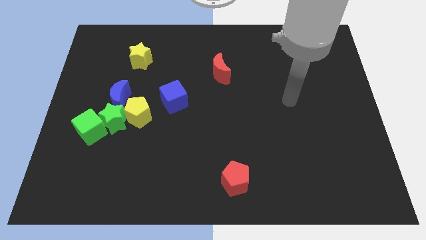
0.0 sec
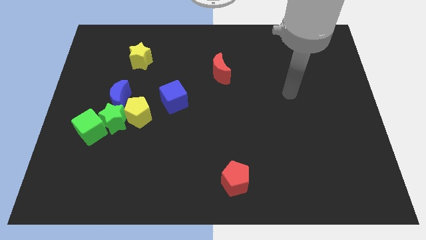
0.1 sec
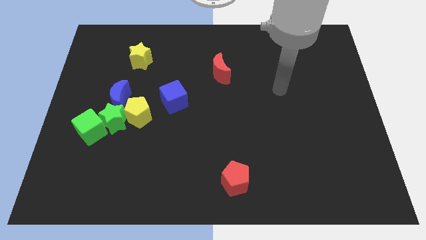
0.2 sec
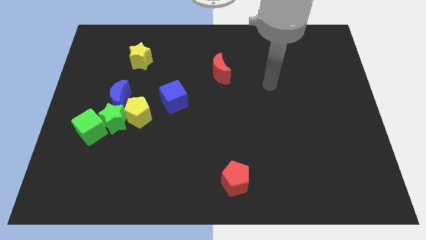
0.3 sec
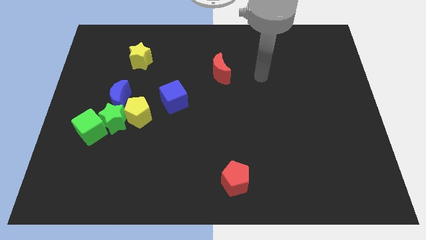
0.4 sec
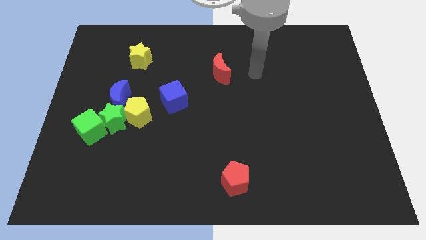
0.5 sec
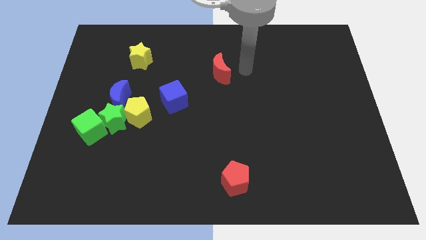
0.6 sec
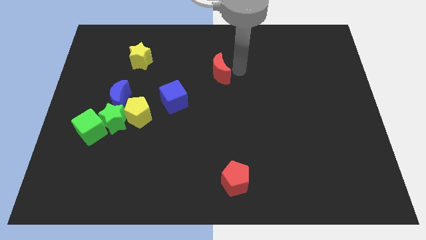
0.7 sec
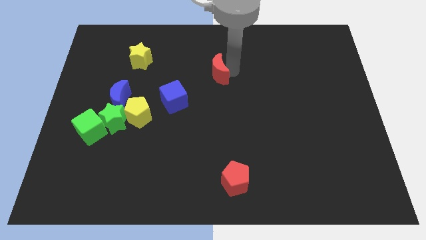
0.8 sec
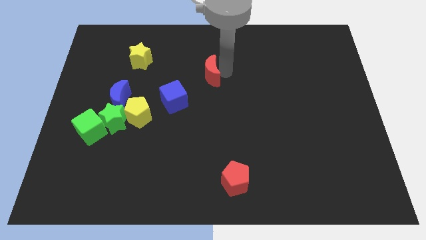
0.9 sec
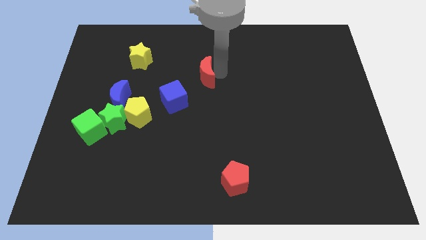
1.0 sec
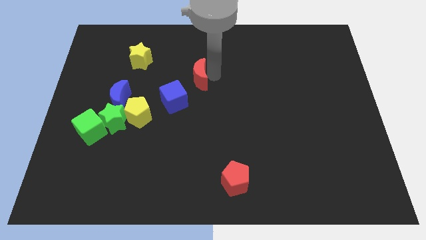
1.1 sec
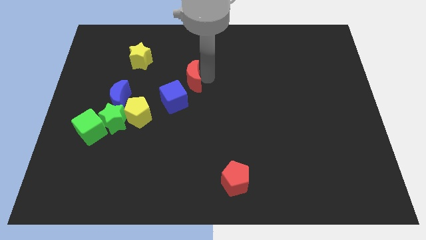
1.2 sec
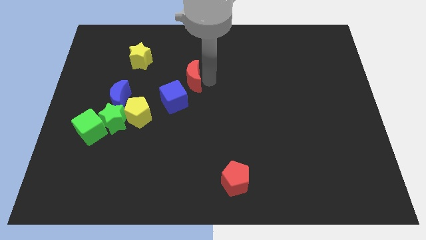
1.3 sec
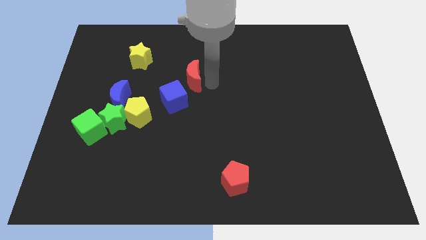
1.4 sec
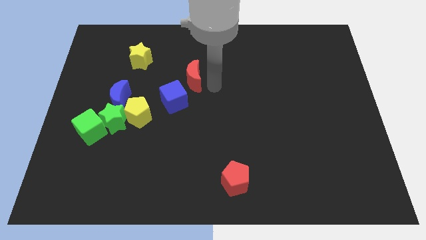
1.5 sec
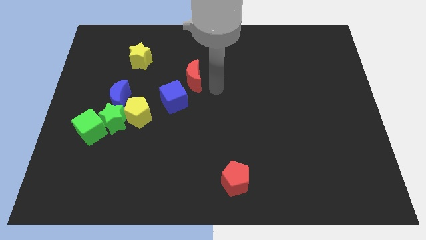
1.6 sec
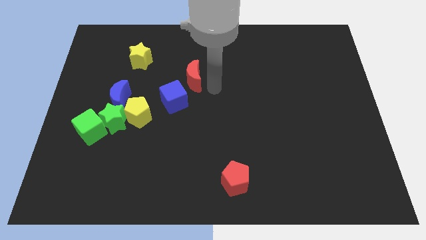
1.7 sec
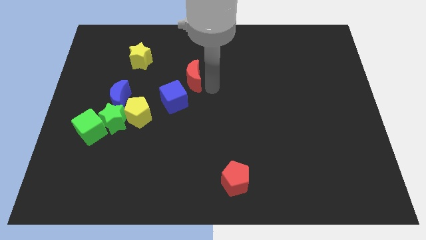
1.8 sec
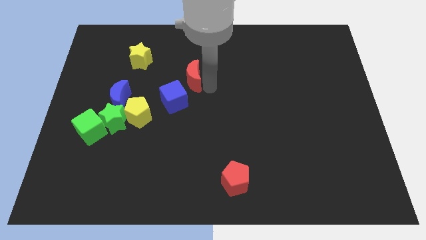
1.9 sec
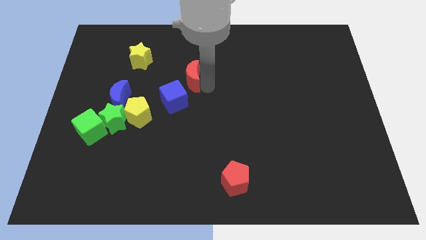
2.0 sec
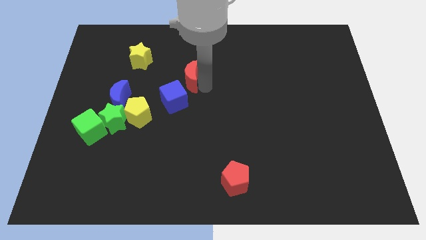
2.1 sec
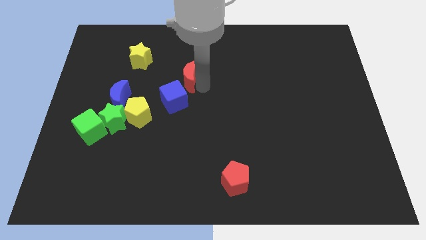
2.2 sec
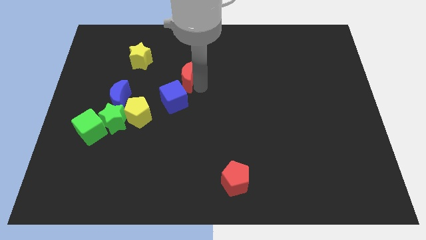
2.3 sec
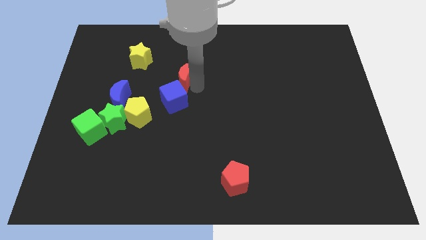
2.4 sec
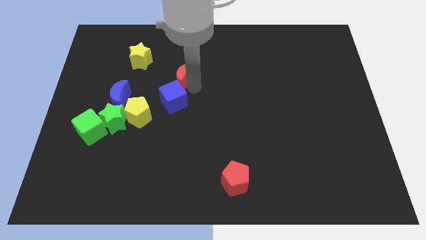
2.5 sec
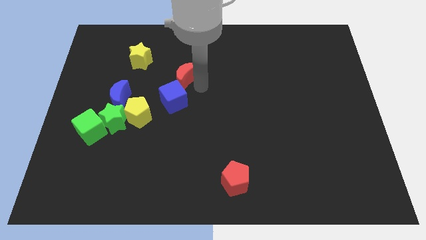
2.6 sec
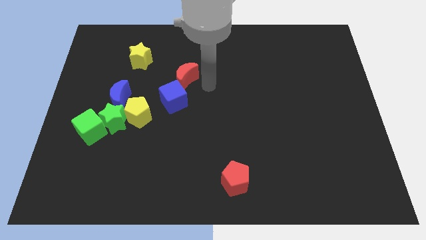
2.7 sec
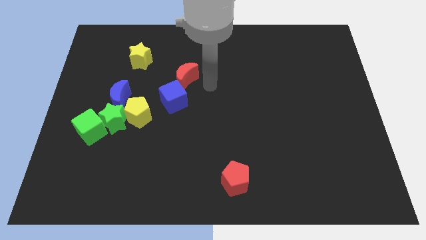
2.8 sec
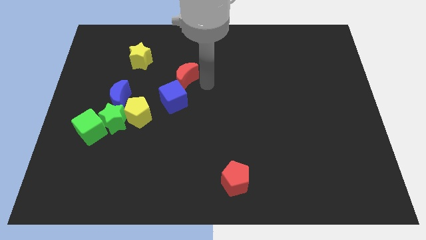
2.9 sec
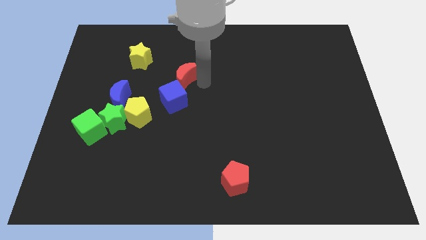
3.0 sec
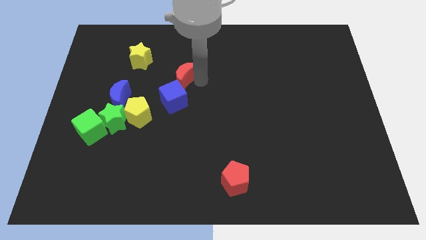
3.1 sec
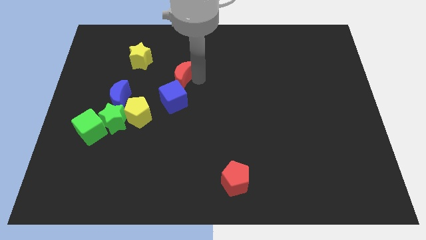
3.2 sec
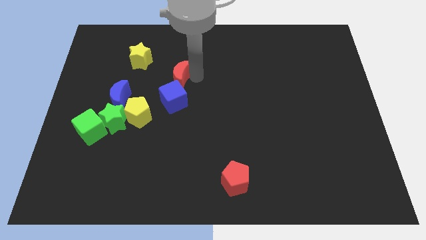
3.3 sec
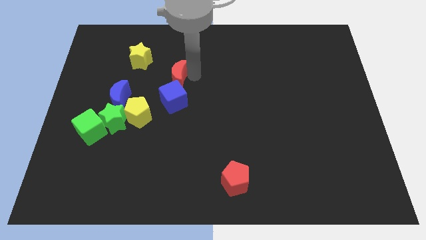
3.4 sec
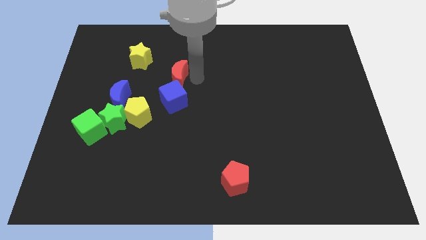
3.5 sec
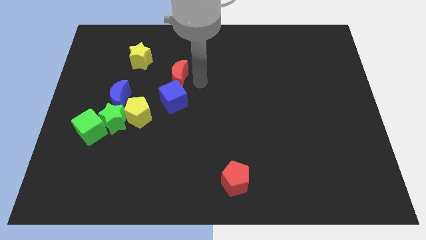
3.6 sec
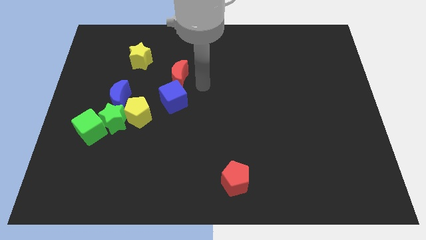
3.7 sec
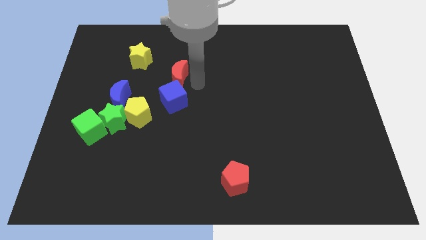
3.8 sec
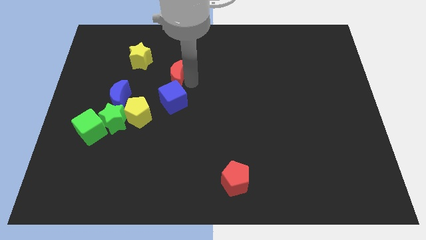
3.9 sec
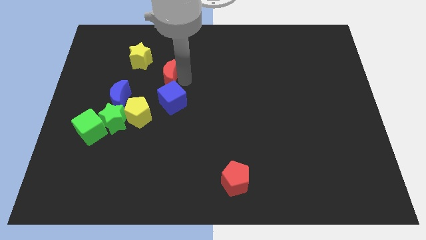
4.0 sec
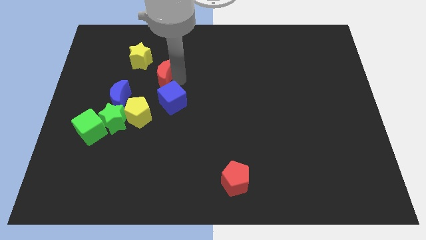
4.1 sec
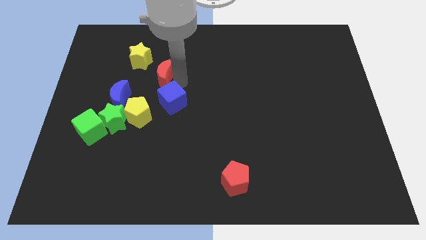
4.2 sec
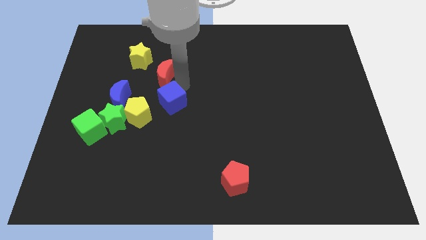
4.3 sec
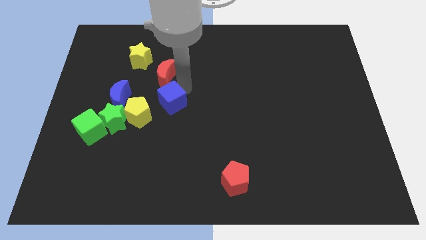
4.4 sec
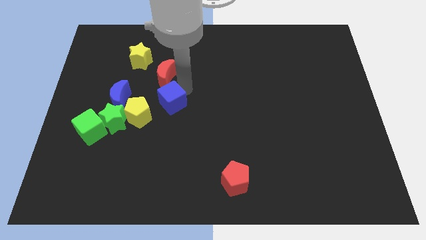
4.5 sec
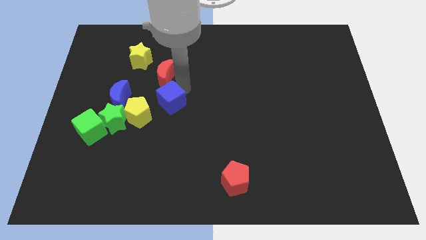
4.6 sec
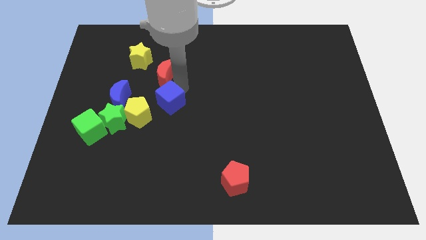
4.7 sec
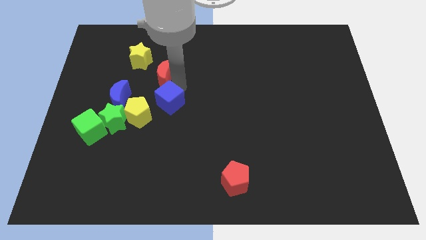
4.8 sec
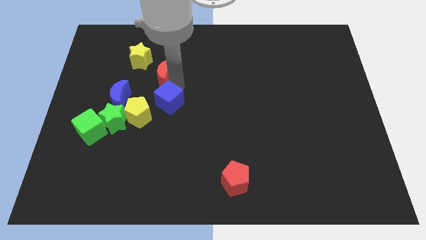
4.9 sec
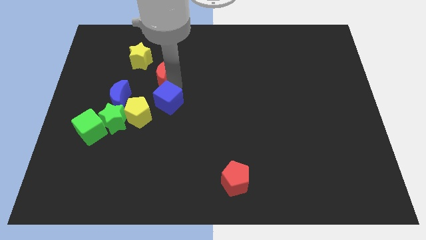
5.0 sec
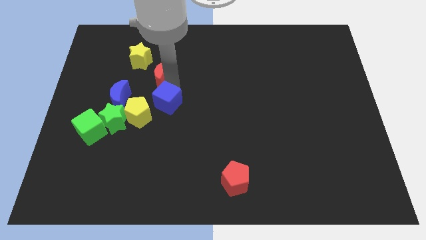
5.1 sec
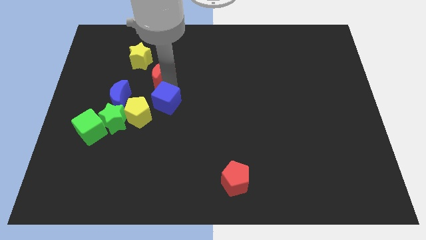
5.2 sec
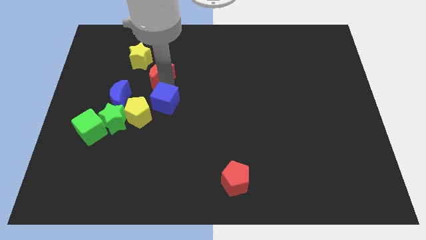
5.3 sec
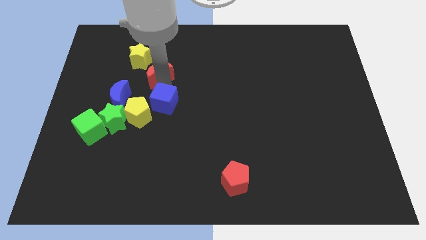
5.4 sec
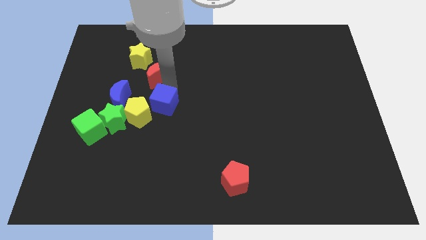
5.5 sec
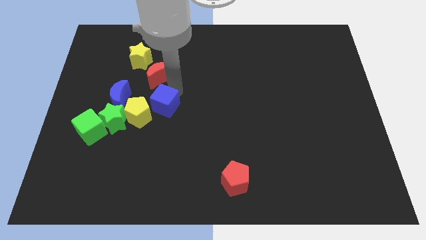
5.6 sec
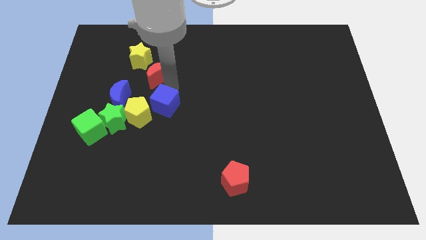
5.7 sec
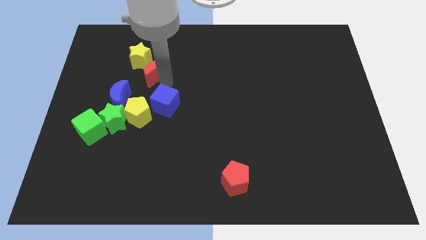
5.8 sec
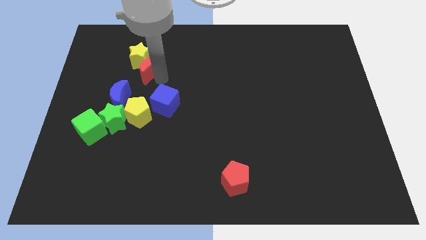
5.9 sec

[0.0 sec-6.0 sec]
push the red moon towards the yellow star

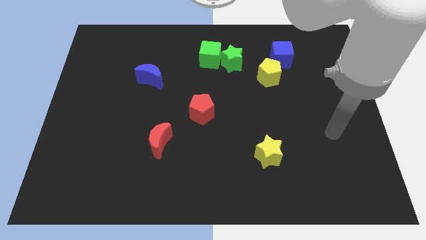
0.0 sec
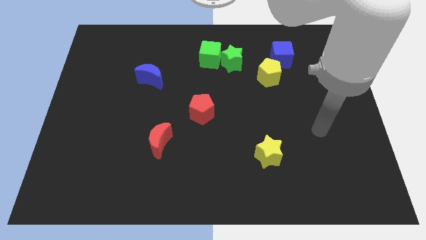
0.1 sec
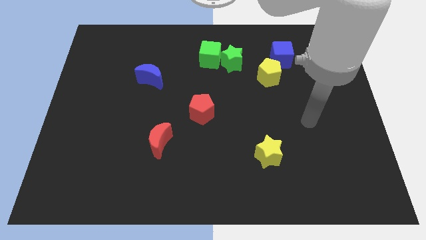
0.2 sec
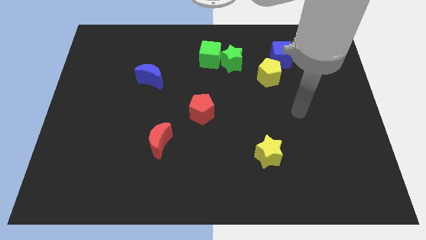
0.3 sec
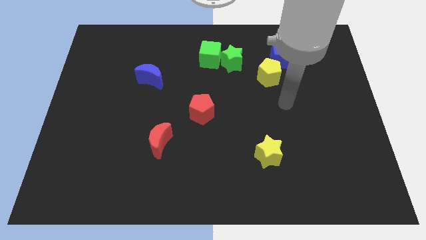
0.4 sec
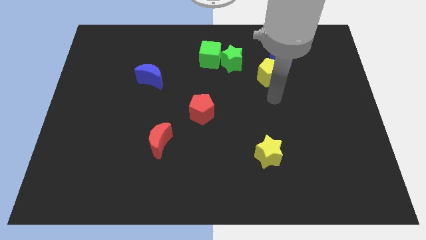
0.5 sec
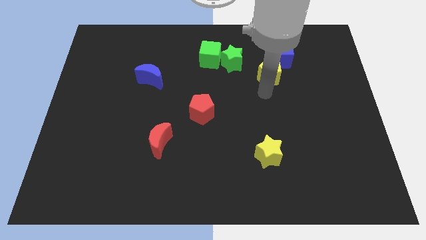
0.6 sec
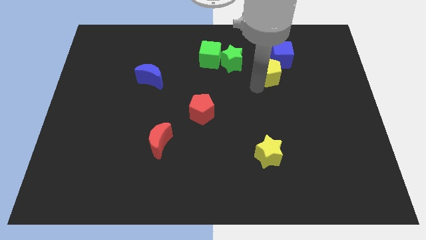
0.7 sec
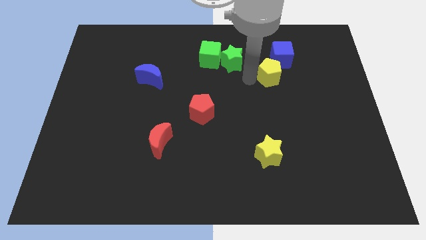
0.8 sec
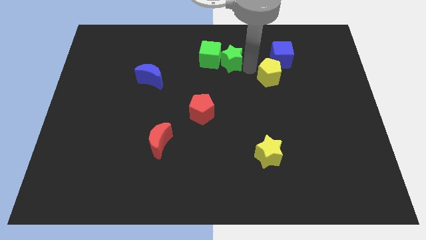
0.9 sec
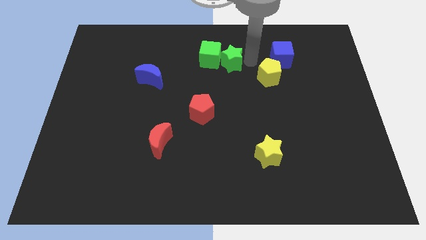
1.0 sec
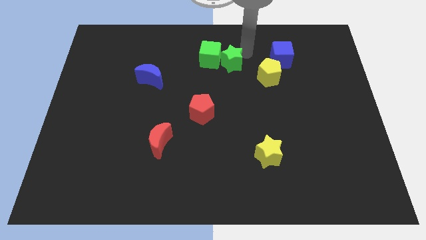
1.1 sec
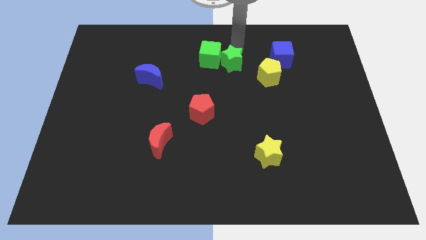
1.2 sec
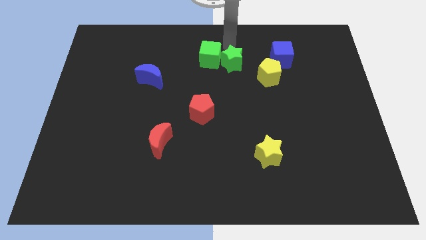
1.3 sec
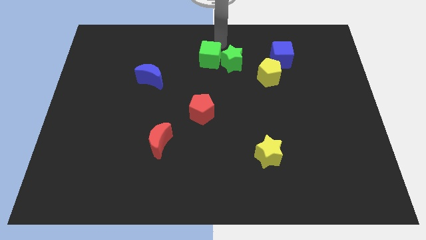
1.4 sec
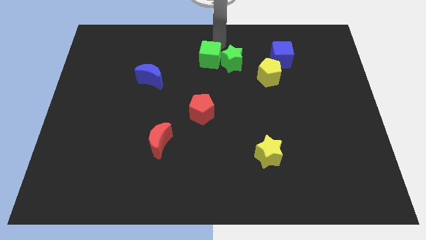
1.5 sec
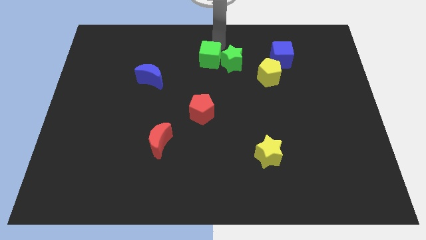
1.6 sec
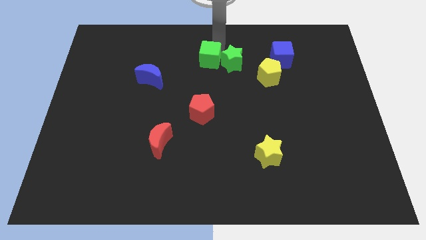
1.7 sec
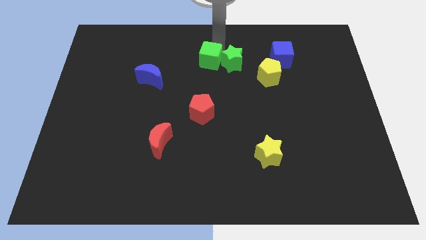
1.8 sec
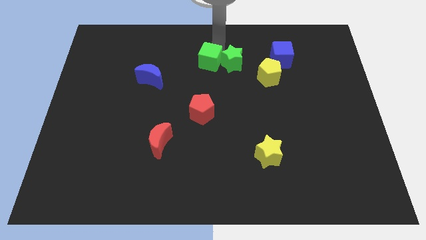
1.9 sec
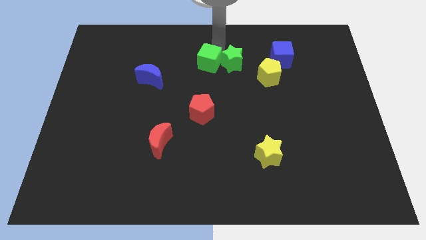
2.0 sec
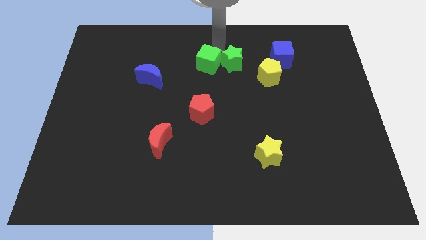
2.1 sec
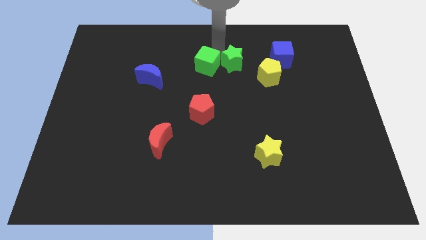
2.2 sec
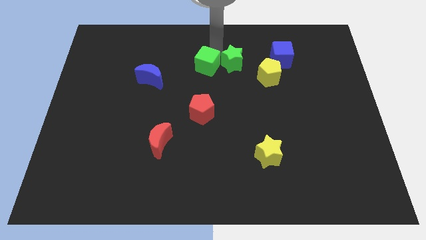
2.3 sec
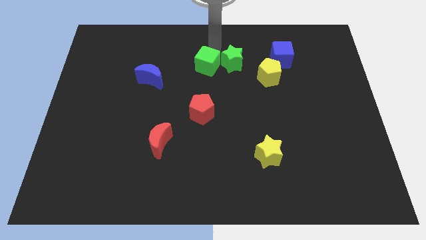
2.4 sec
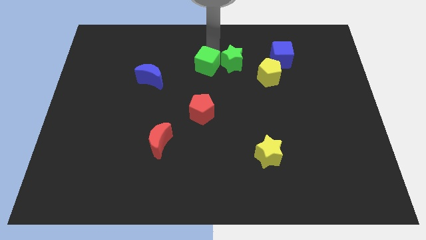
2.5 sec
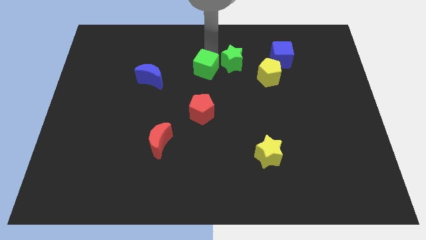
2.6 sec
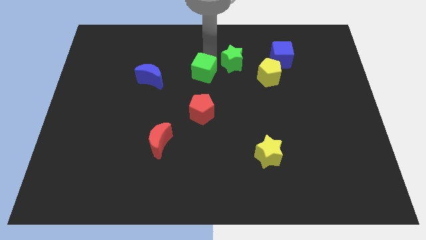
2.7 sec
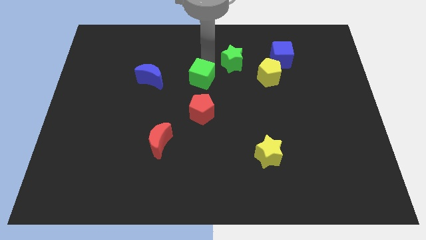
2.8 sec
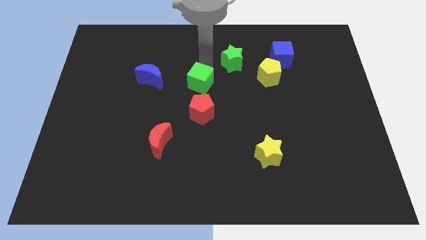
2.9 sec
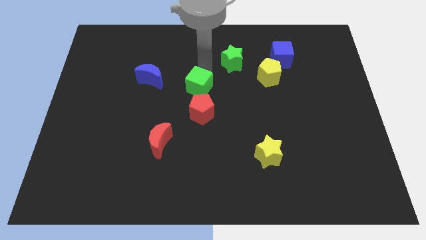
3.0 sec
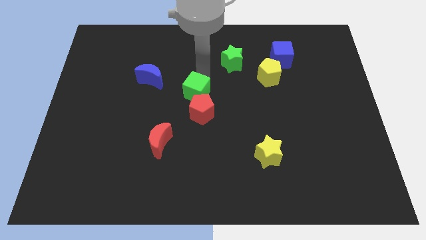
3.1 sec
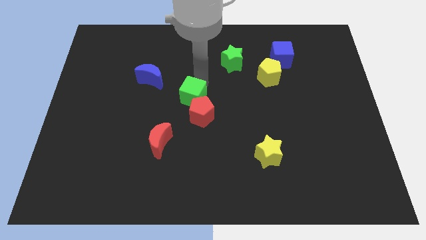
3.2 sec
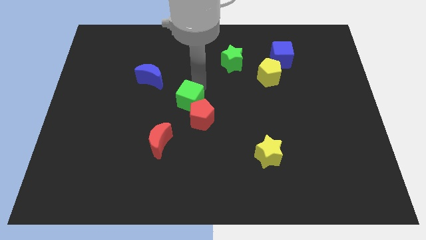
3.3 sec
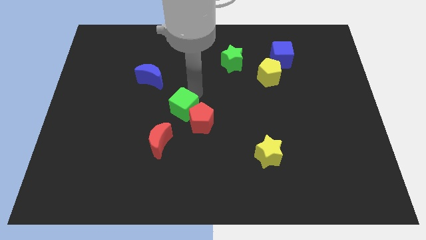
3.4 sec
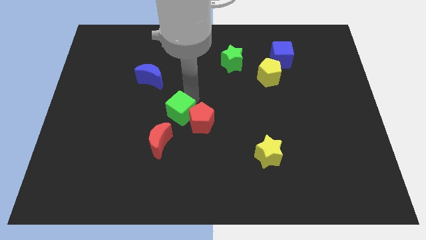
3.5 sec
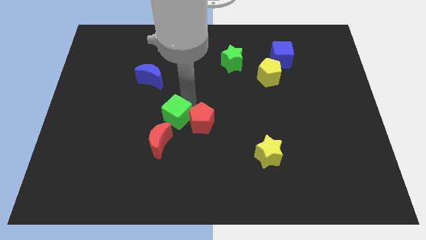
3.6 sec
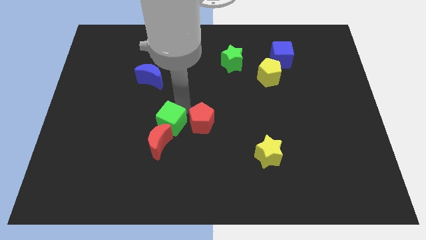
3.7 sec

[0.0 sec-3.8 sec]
put the green cube close to the red moon
